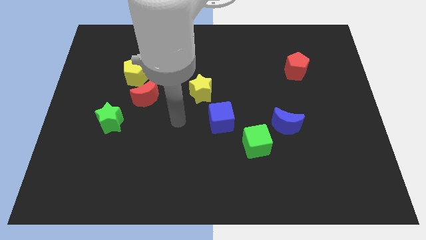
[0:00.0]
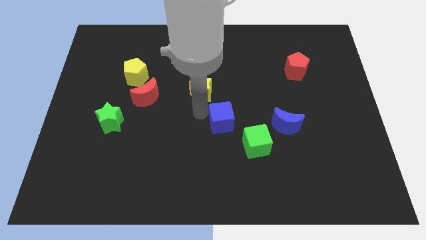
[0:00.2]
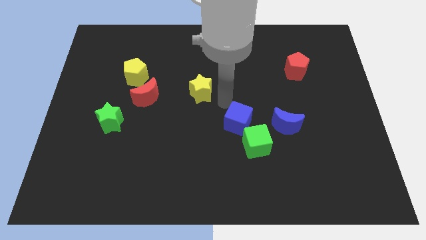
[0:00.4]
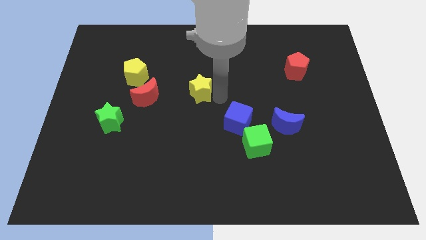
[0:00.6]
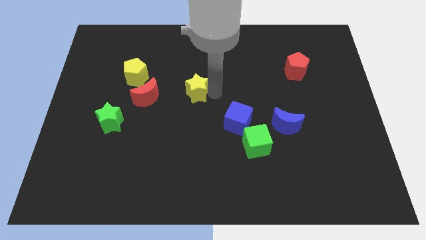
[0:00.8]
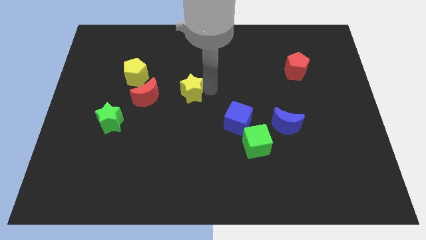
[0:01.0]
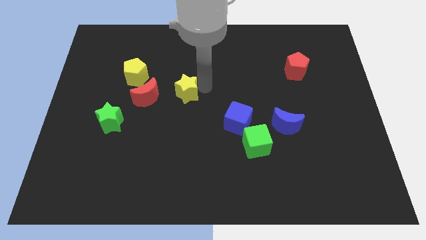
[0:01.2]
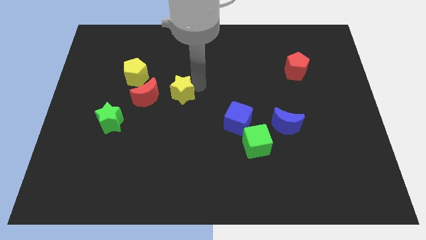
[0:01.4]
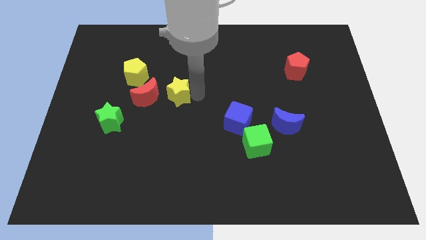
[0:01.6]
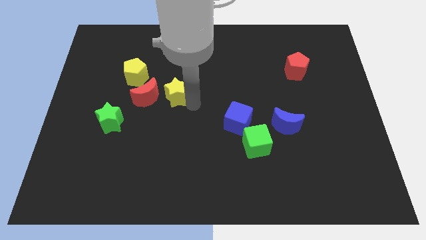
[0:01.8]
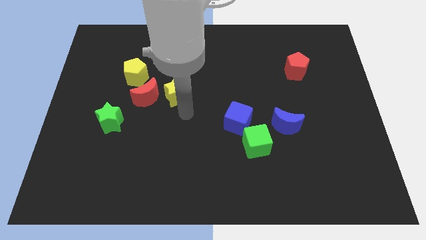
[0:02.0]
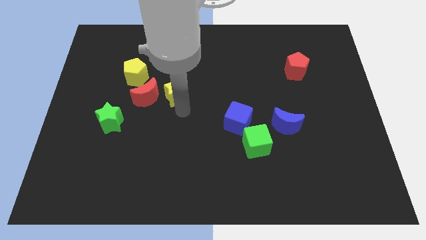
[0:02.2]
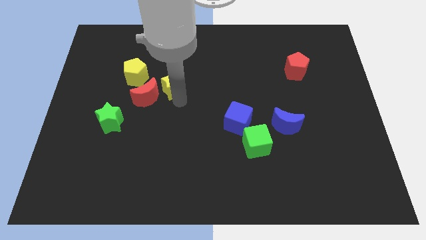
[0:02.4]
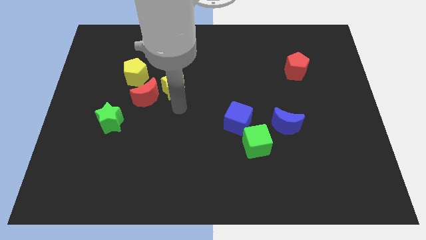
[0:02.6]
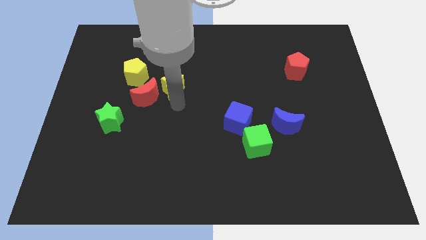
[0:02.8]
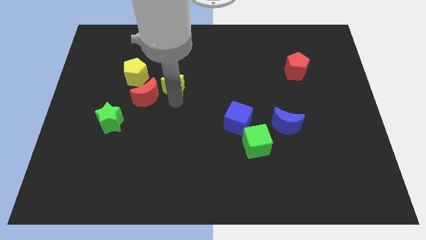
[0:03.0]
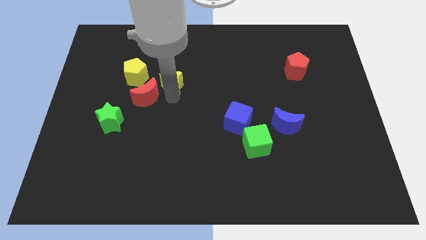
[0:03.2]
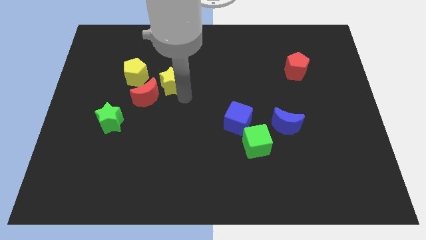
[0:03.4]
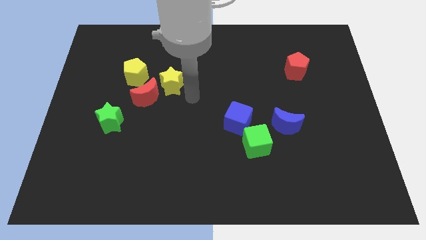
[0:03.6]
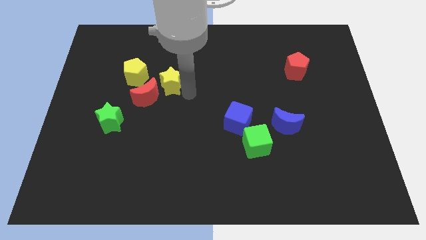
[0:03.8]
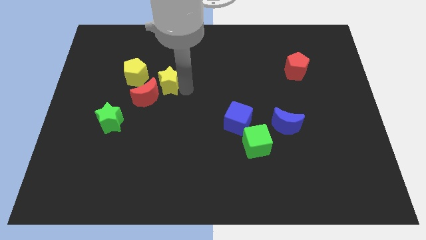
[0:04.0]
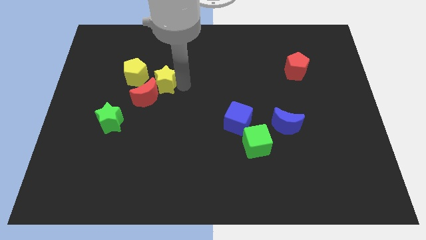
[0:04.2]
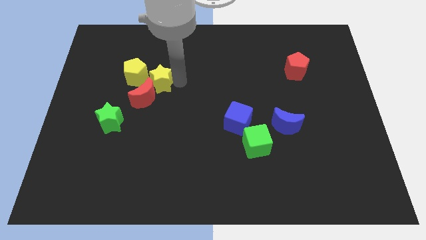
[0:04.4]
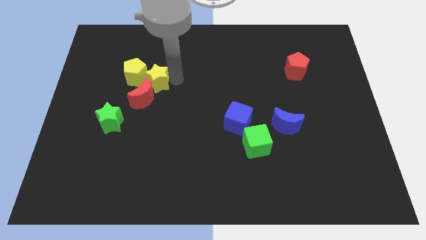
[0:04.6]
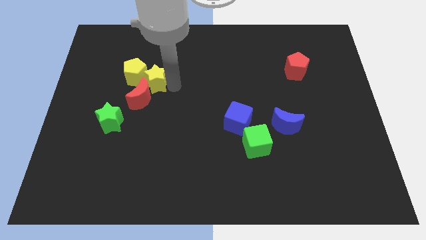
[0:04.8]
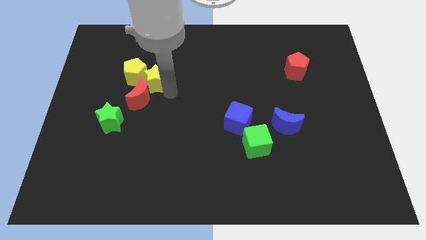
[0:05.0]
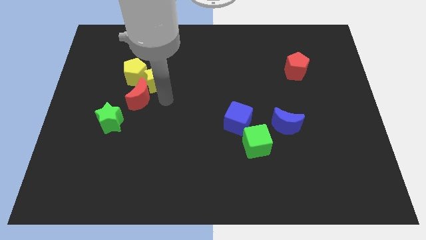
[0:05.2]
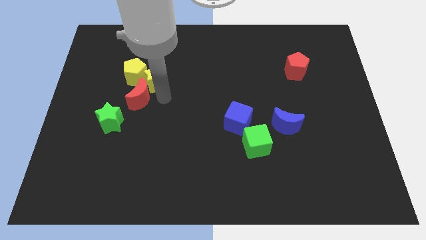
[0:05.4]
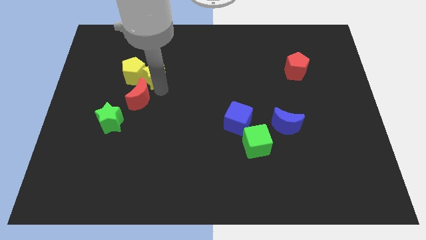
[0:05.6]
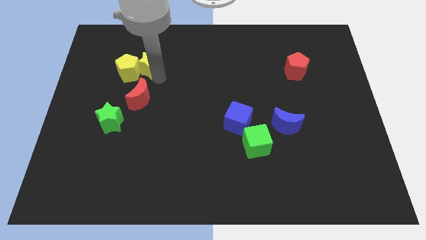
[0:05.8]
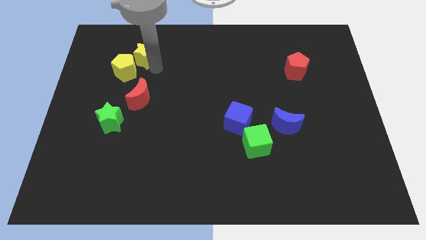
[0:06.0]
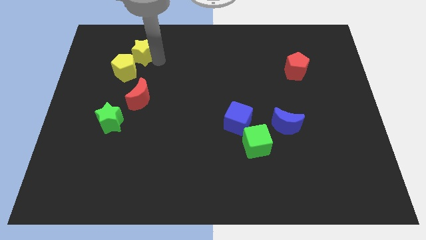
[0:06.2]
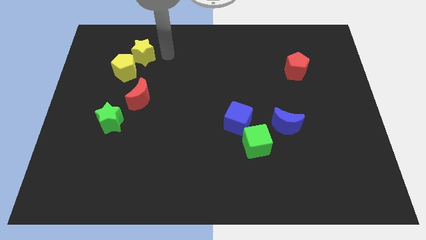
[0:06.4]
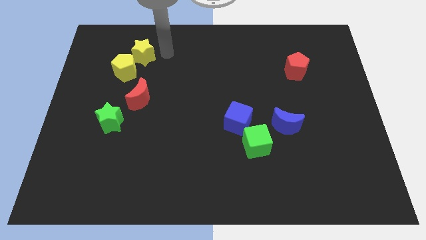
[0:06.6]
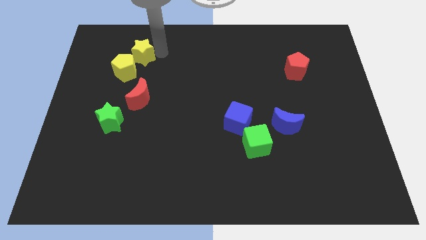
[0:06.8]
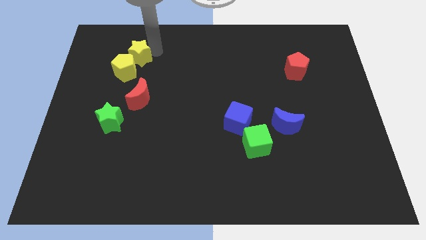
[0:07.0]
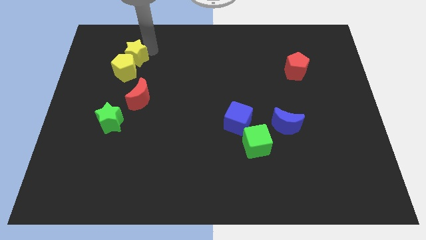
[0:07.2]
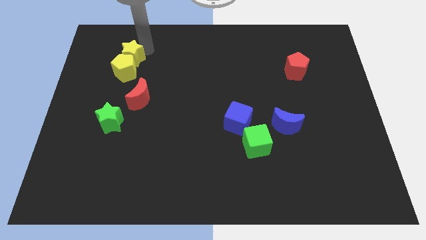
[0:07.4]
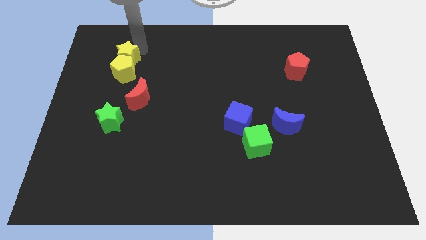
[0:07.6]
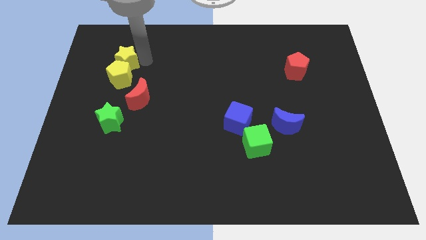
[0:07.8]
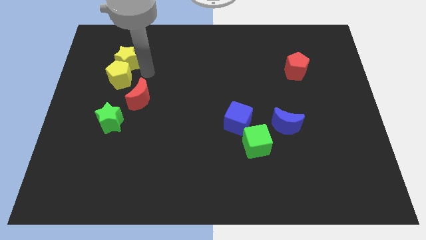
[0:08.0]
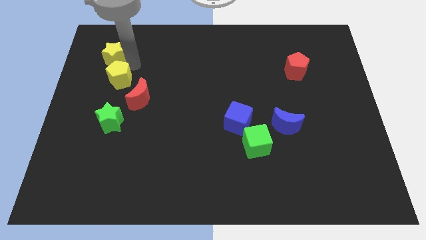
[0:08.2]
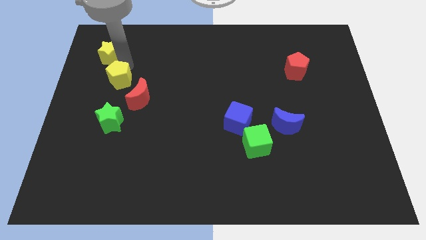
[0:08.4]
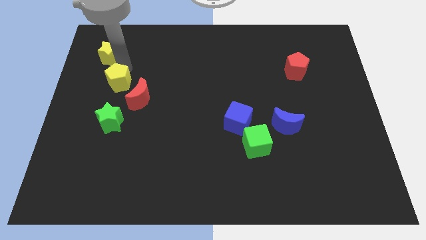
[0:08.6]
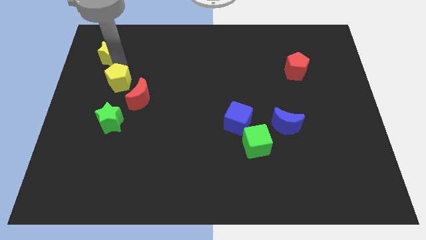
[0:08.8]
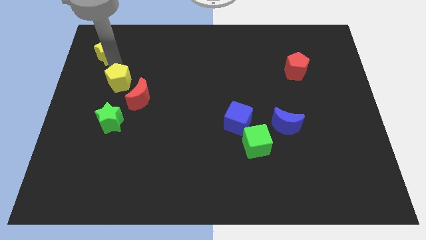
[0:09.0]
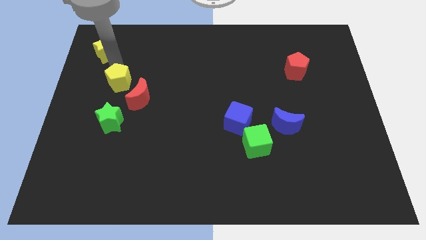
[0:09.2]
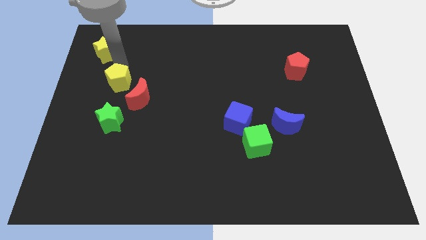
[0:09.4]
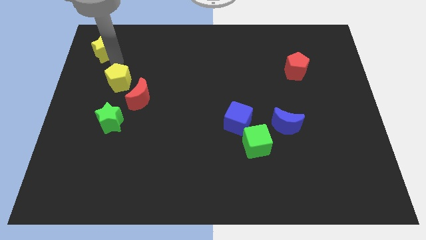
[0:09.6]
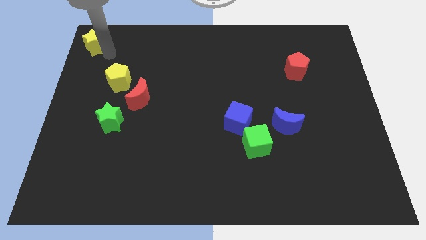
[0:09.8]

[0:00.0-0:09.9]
move the yellow star to the upper left corner

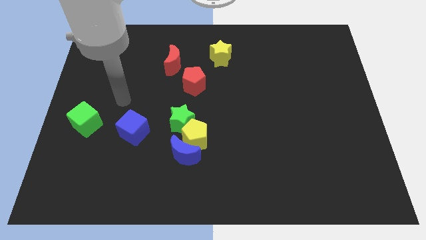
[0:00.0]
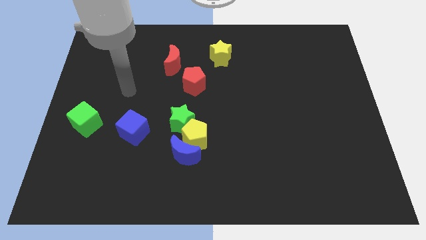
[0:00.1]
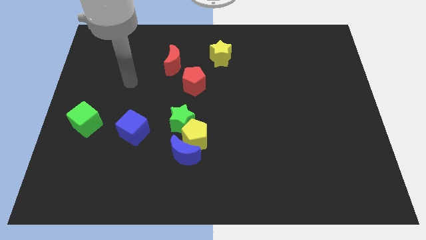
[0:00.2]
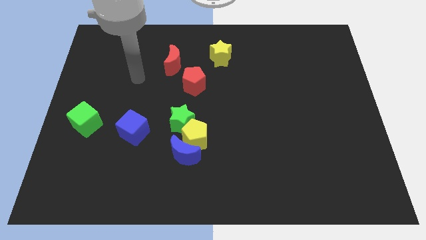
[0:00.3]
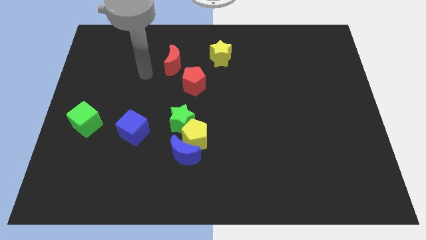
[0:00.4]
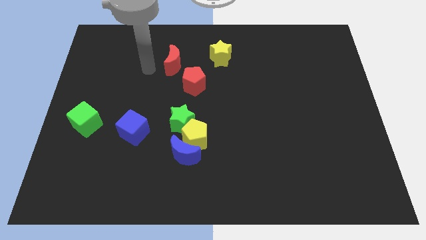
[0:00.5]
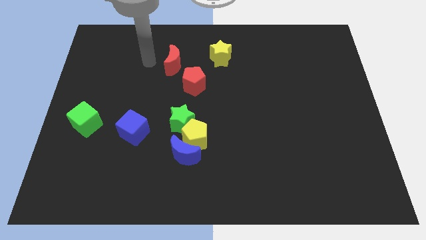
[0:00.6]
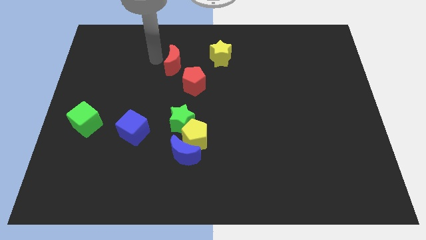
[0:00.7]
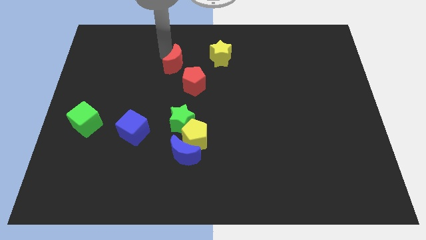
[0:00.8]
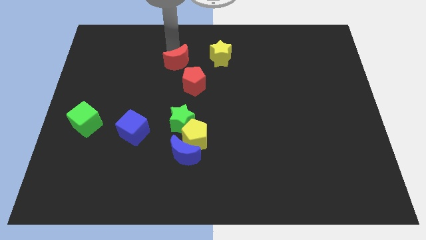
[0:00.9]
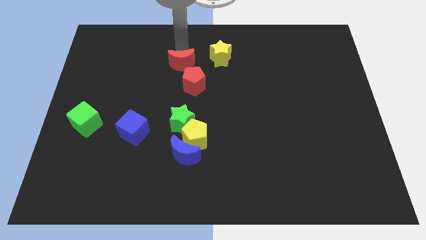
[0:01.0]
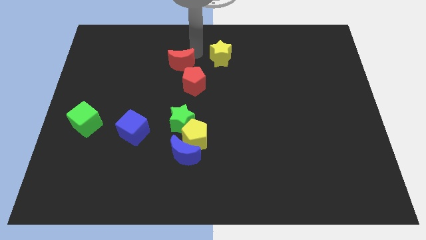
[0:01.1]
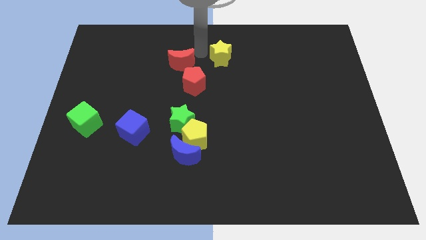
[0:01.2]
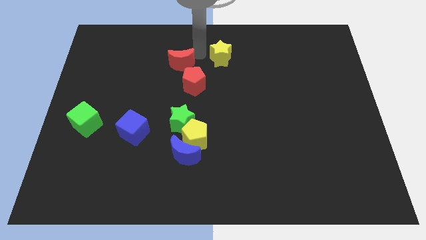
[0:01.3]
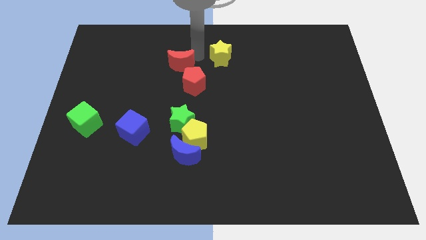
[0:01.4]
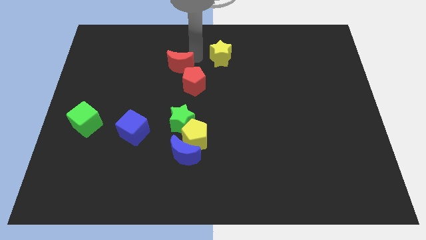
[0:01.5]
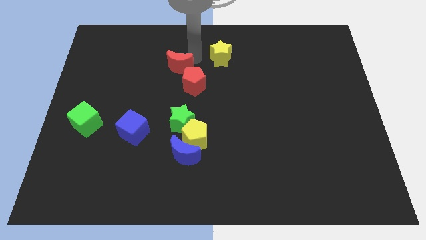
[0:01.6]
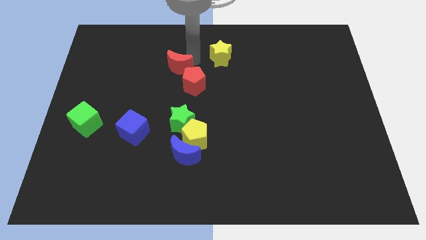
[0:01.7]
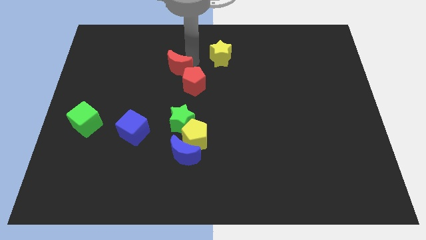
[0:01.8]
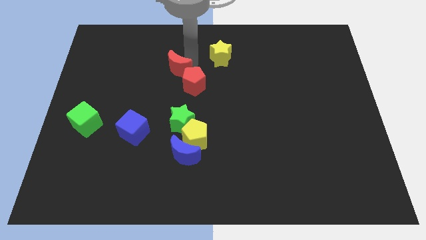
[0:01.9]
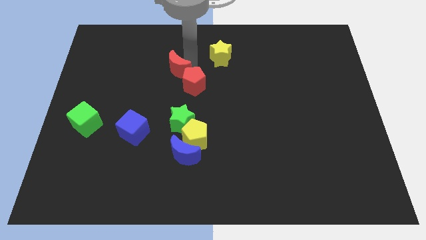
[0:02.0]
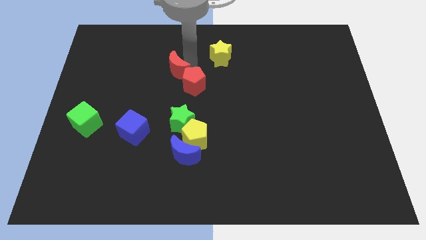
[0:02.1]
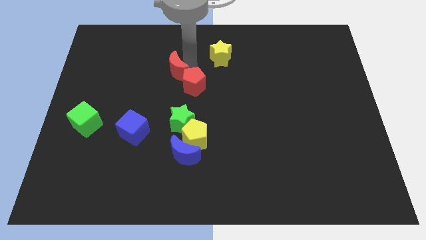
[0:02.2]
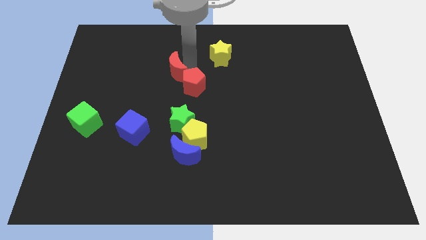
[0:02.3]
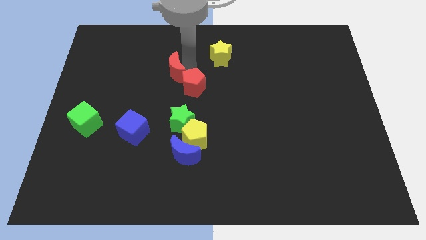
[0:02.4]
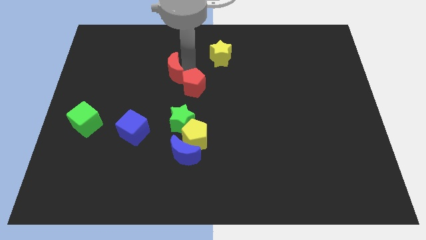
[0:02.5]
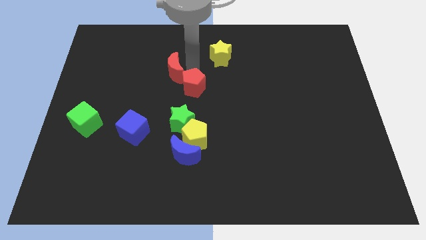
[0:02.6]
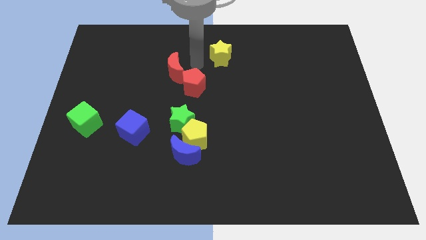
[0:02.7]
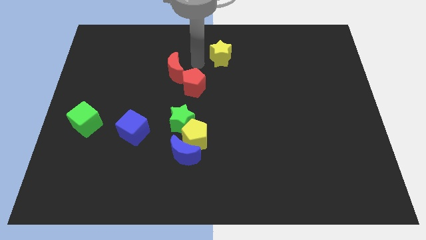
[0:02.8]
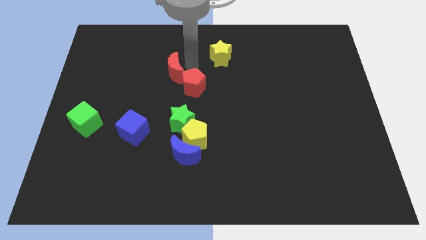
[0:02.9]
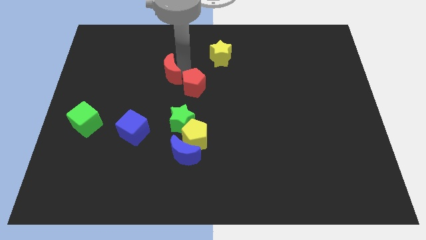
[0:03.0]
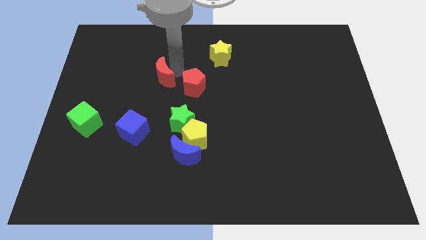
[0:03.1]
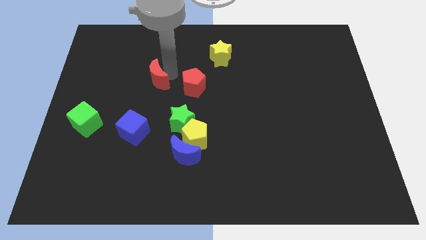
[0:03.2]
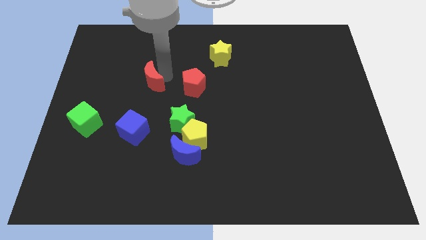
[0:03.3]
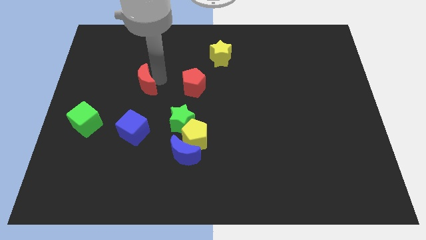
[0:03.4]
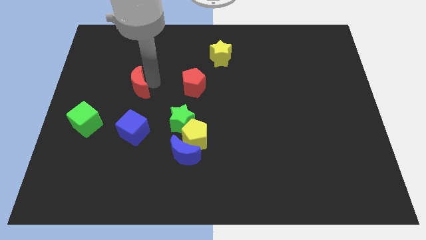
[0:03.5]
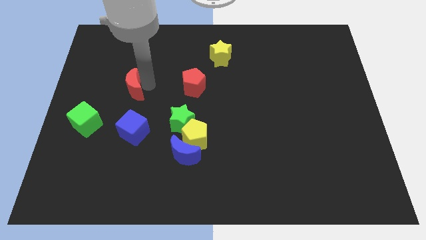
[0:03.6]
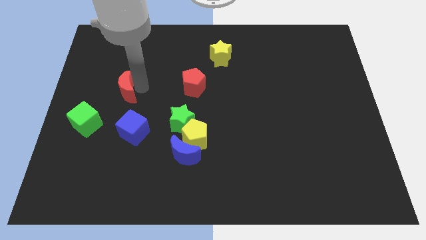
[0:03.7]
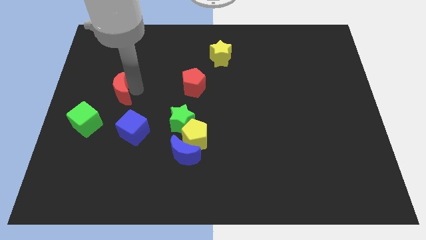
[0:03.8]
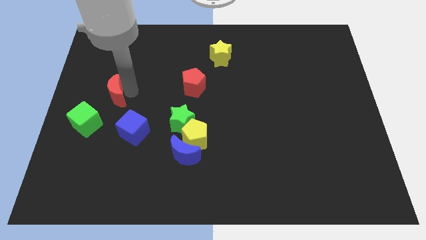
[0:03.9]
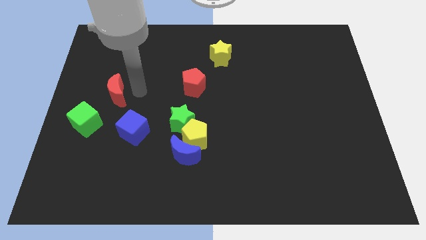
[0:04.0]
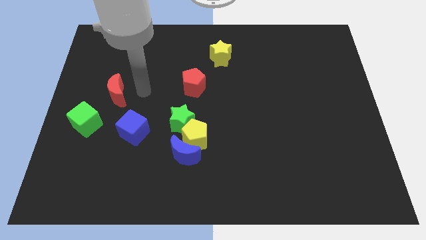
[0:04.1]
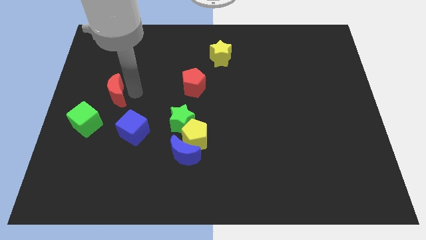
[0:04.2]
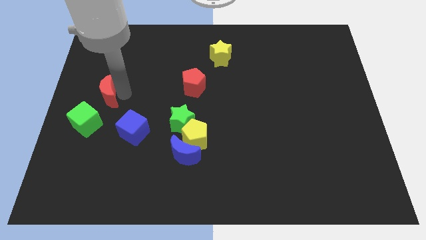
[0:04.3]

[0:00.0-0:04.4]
move the red moon to the left side
